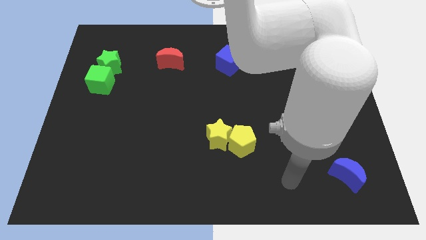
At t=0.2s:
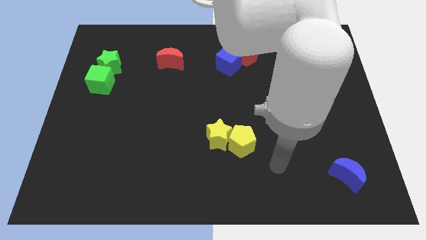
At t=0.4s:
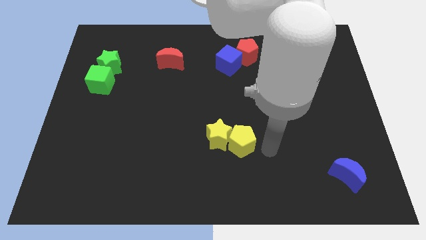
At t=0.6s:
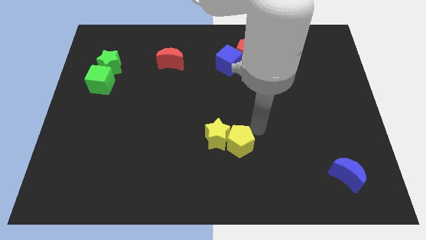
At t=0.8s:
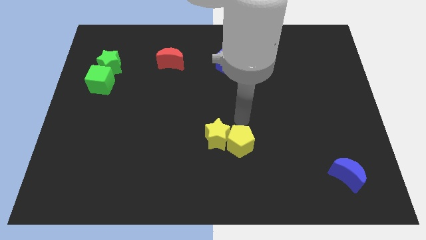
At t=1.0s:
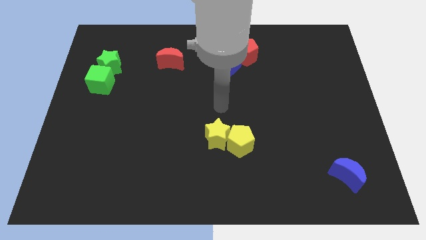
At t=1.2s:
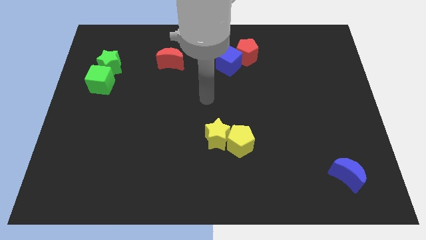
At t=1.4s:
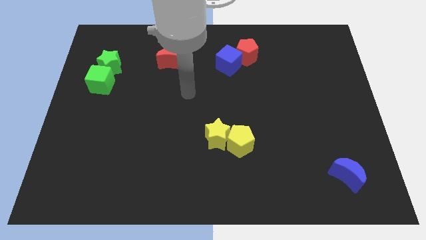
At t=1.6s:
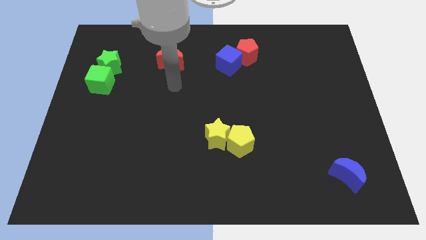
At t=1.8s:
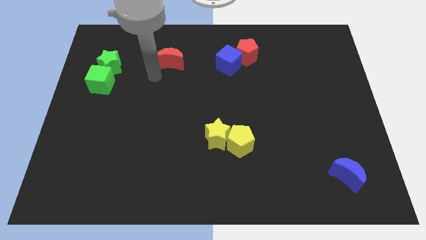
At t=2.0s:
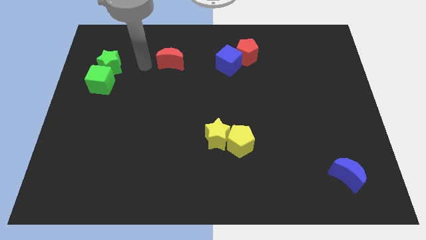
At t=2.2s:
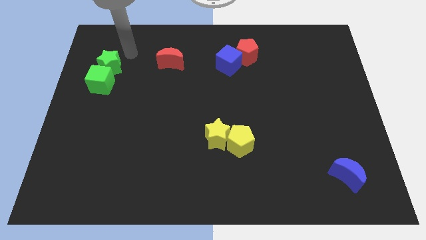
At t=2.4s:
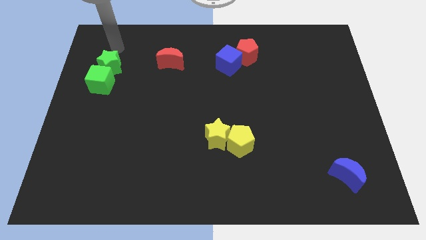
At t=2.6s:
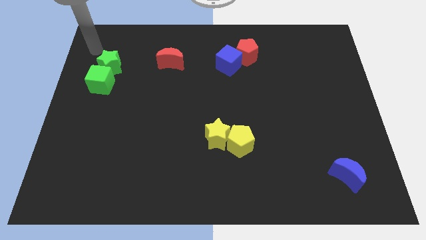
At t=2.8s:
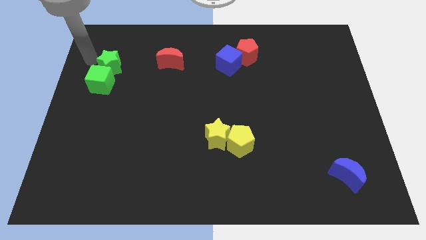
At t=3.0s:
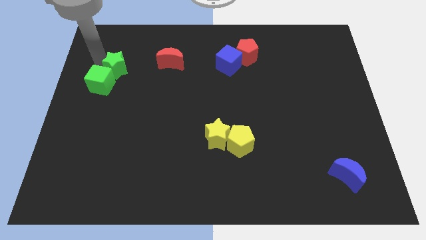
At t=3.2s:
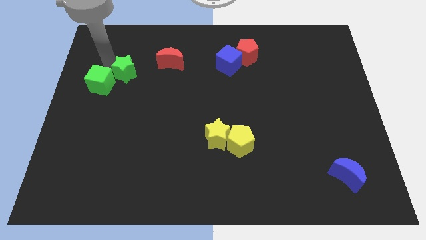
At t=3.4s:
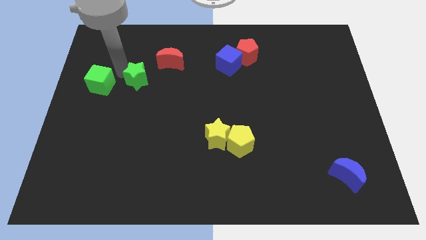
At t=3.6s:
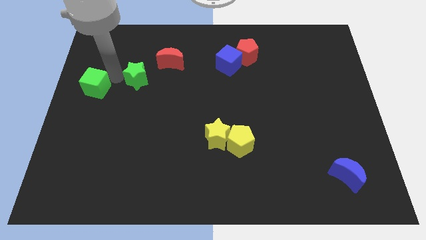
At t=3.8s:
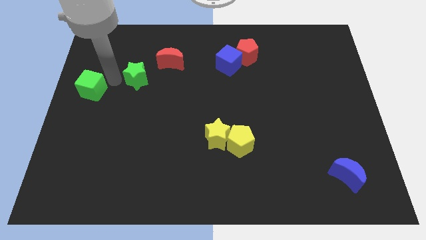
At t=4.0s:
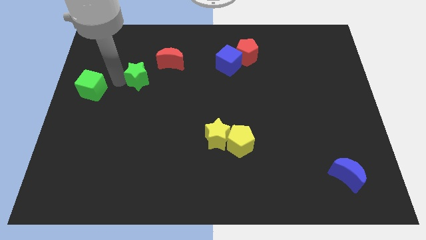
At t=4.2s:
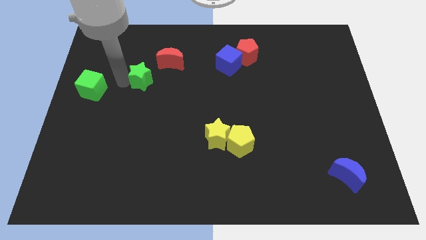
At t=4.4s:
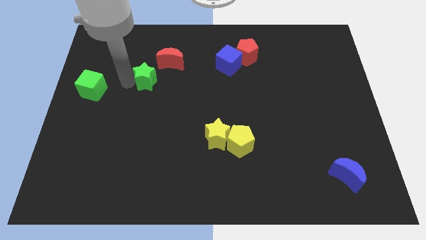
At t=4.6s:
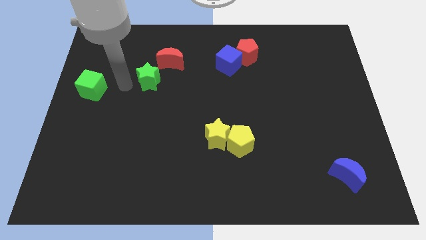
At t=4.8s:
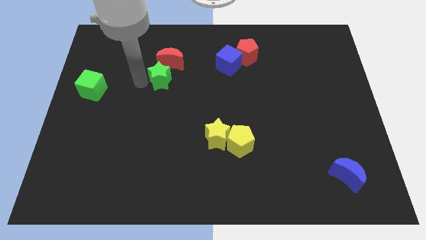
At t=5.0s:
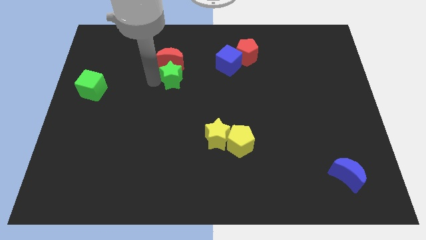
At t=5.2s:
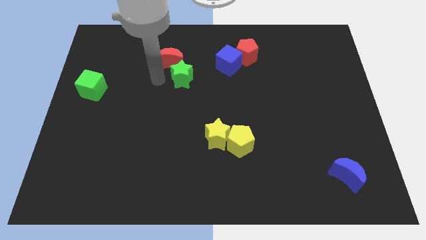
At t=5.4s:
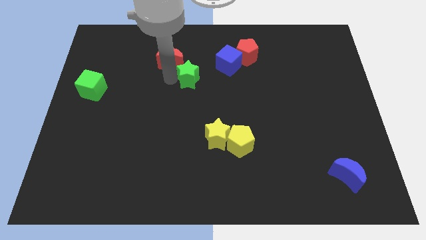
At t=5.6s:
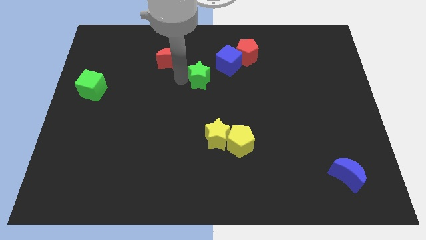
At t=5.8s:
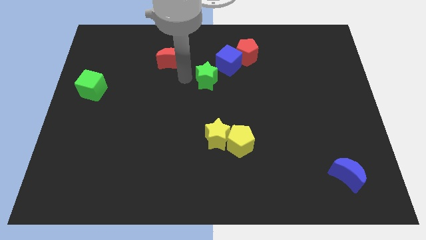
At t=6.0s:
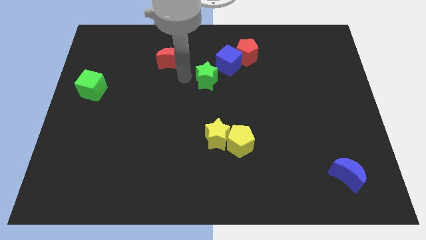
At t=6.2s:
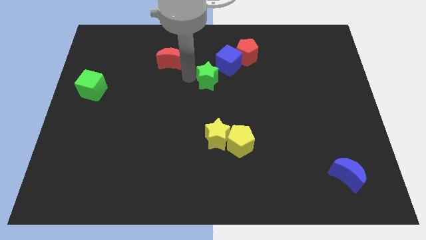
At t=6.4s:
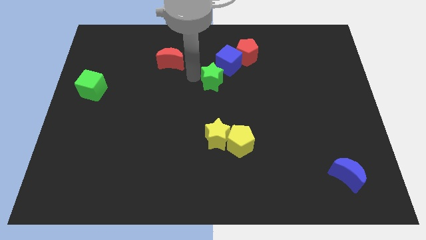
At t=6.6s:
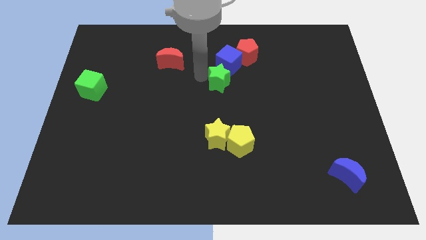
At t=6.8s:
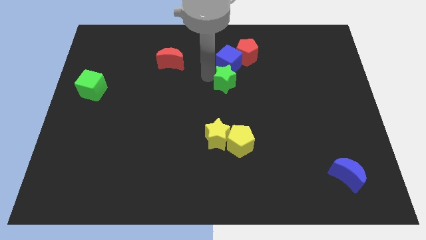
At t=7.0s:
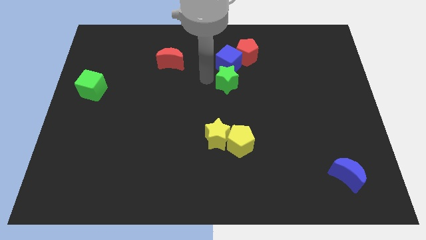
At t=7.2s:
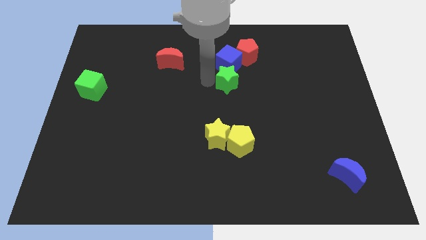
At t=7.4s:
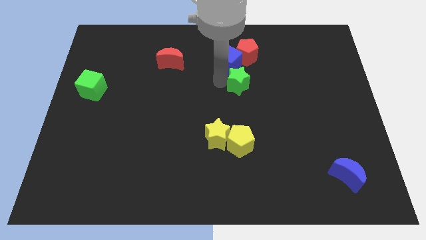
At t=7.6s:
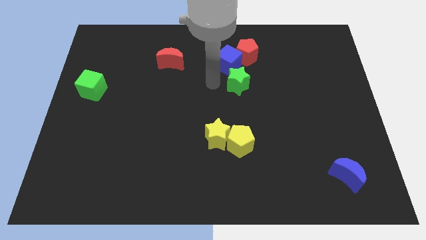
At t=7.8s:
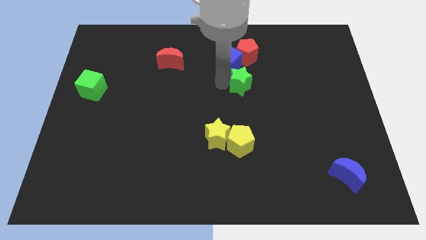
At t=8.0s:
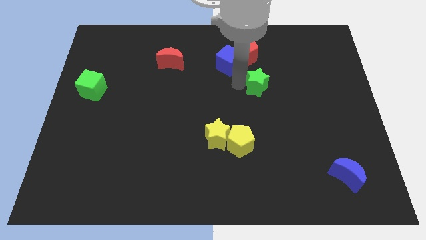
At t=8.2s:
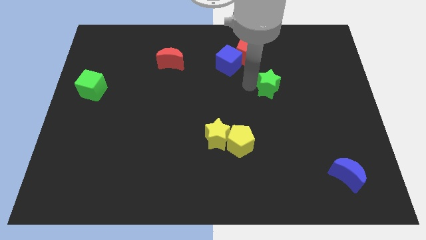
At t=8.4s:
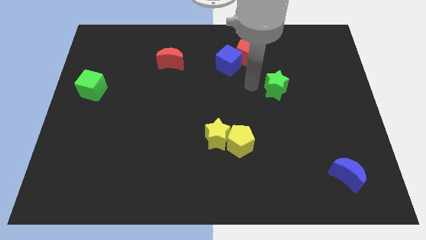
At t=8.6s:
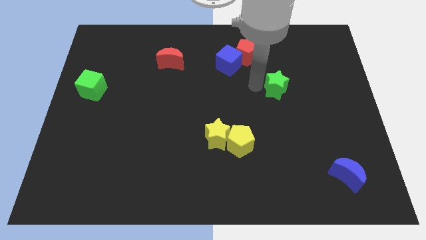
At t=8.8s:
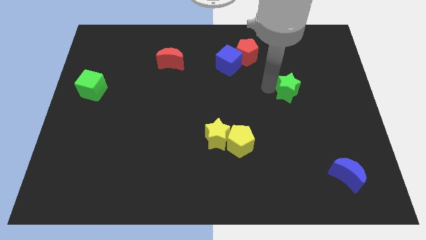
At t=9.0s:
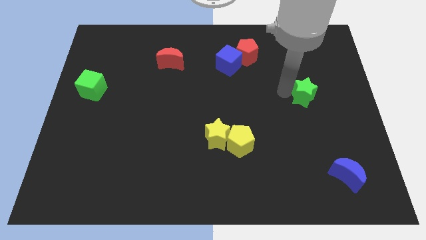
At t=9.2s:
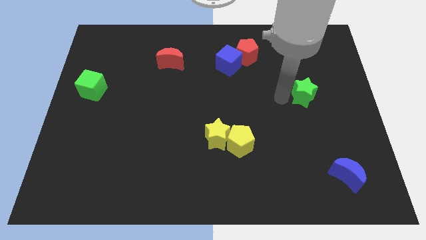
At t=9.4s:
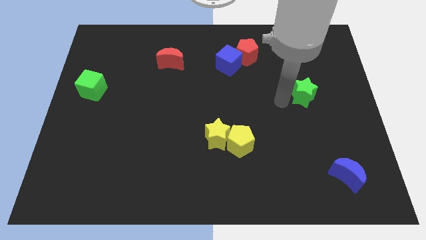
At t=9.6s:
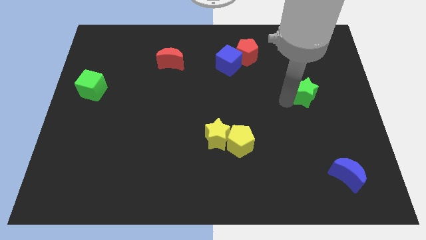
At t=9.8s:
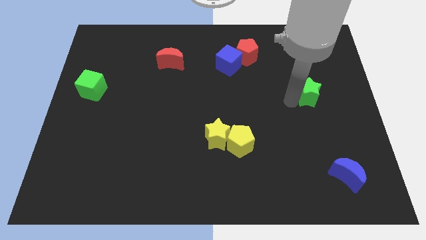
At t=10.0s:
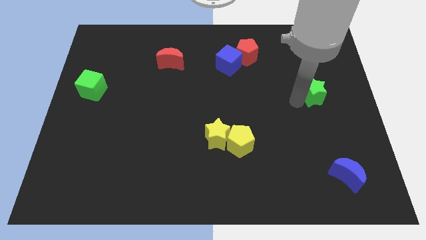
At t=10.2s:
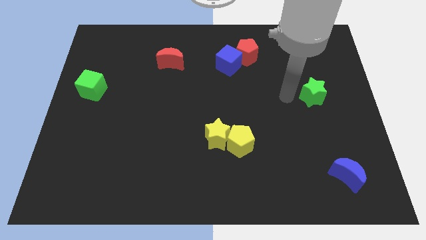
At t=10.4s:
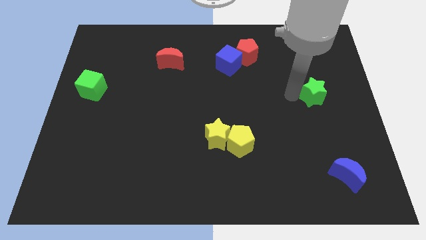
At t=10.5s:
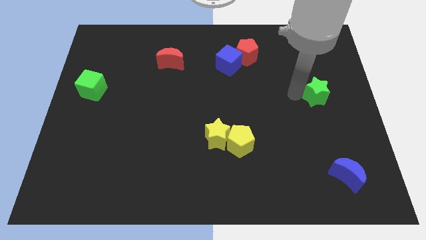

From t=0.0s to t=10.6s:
push the green star to the right side of the board

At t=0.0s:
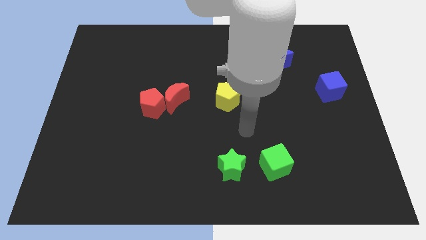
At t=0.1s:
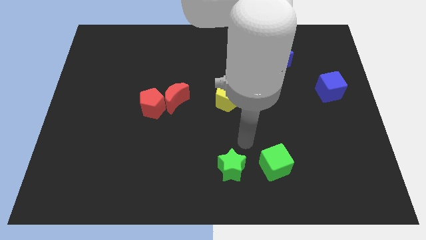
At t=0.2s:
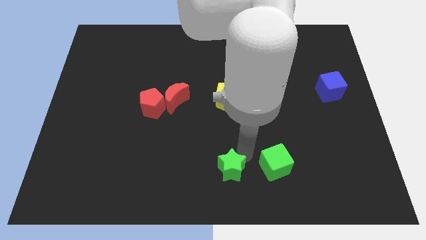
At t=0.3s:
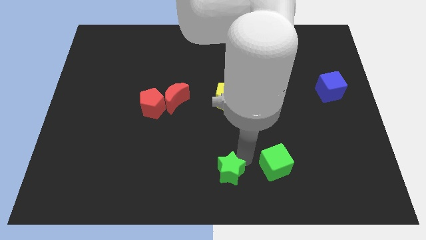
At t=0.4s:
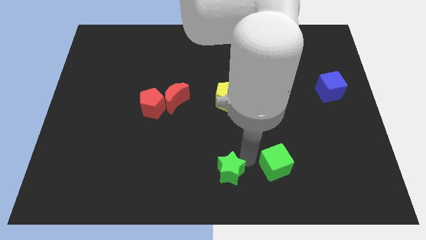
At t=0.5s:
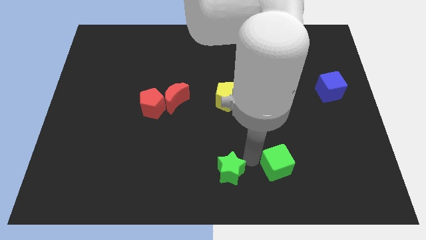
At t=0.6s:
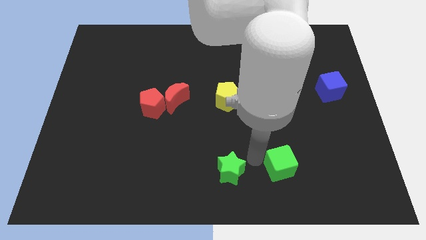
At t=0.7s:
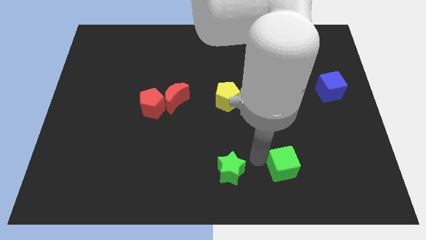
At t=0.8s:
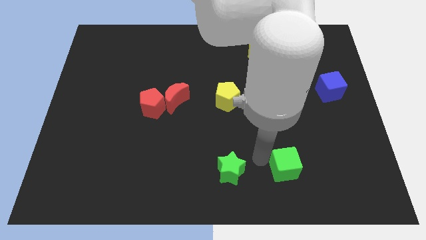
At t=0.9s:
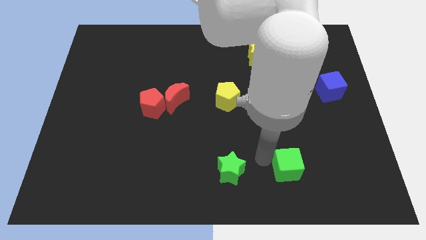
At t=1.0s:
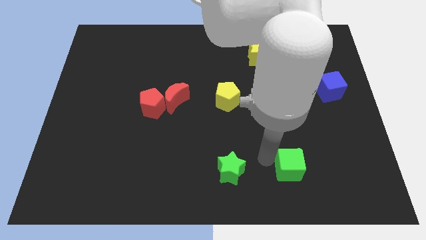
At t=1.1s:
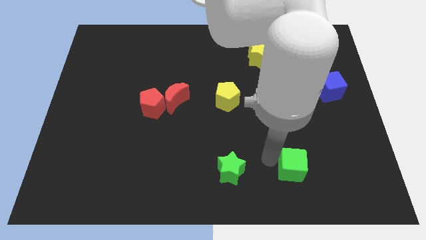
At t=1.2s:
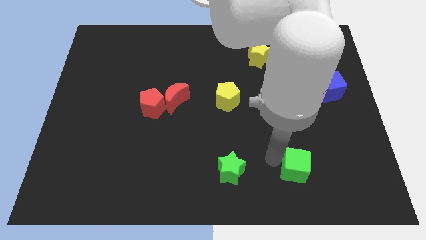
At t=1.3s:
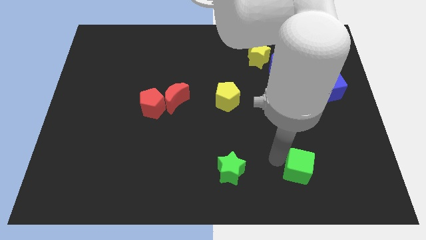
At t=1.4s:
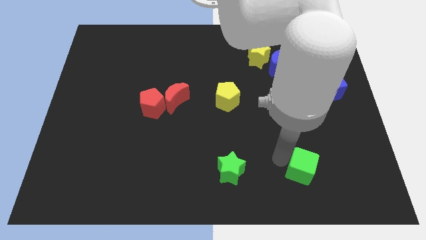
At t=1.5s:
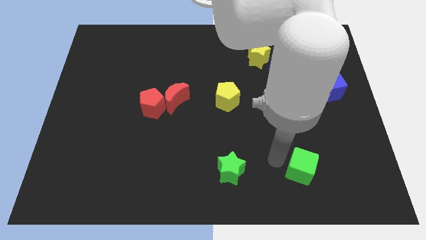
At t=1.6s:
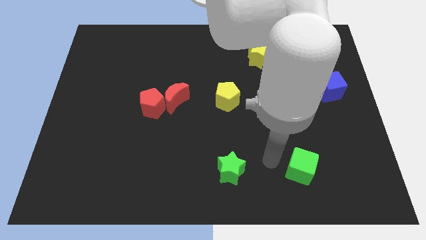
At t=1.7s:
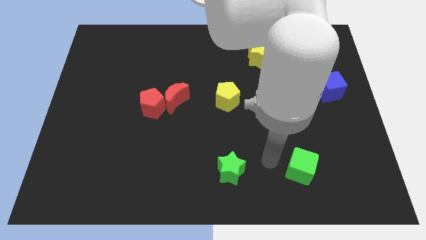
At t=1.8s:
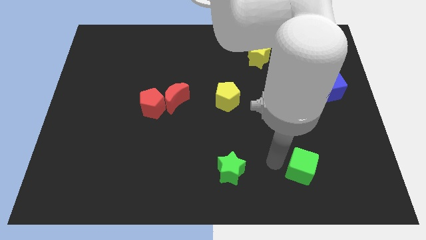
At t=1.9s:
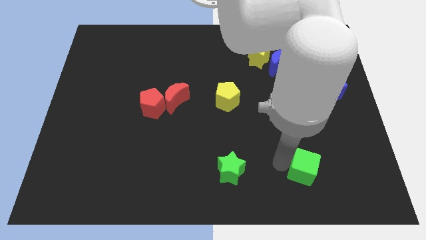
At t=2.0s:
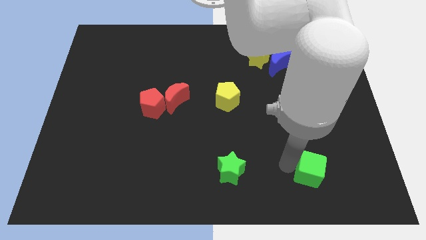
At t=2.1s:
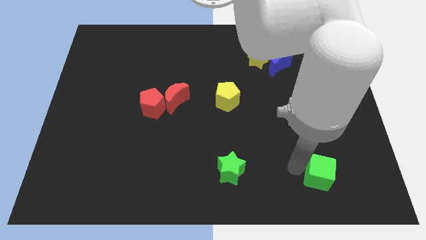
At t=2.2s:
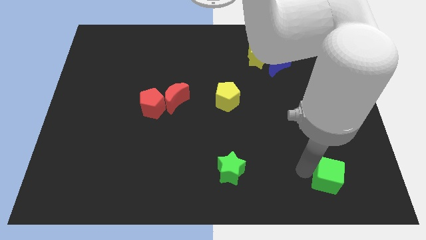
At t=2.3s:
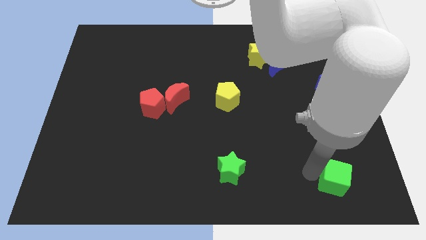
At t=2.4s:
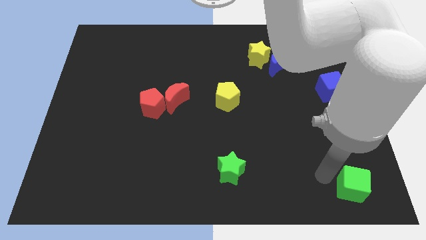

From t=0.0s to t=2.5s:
slide the green cube to the bottom right of the board
